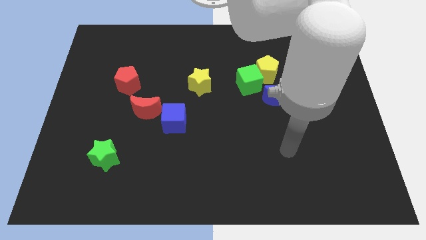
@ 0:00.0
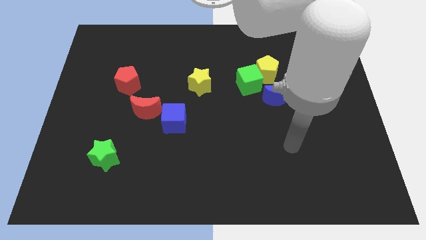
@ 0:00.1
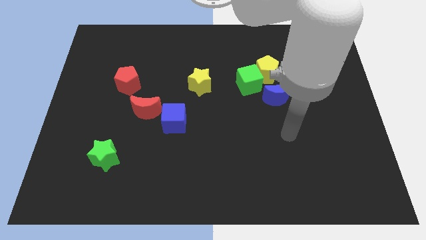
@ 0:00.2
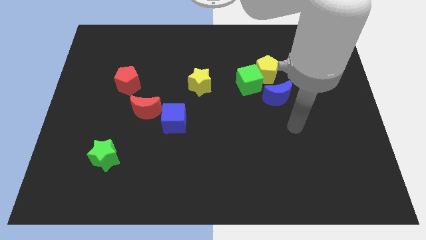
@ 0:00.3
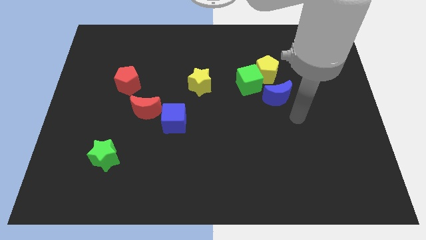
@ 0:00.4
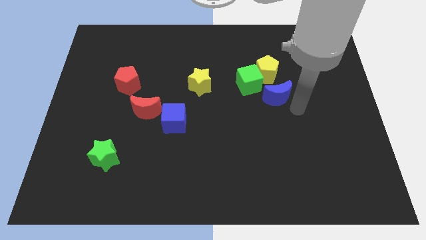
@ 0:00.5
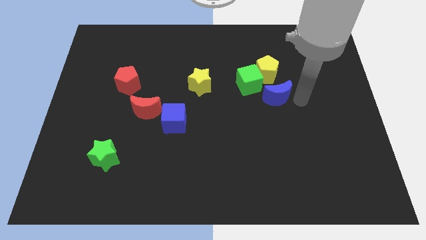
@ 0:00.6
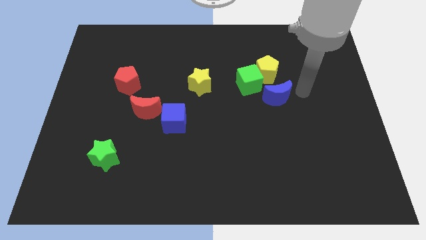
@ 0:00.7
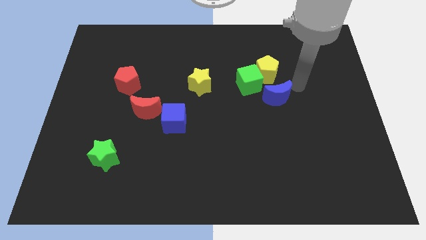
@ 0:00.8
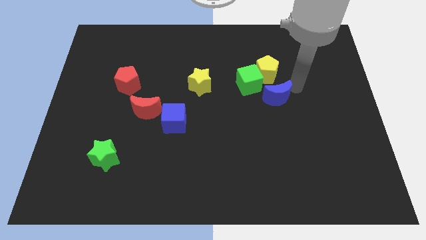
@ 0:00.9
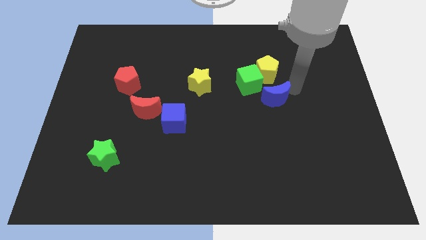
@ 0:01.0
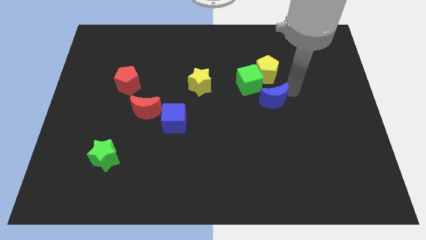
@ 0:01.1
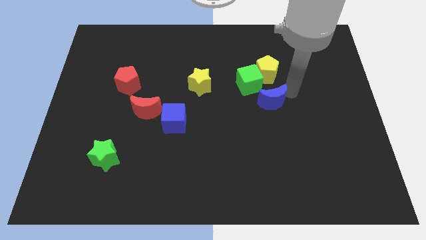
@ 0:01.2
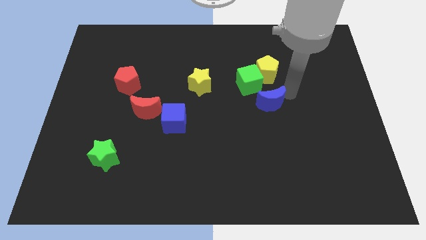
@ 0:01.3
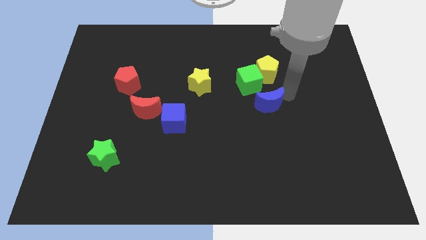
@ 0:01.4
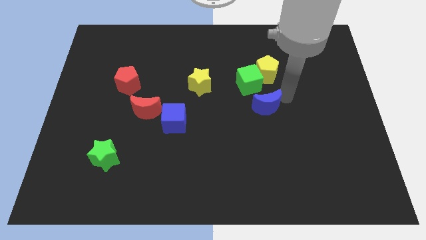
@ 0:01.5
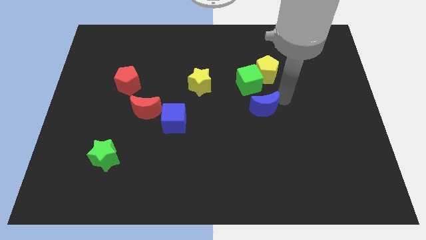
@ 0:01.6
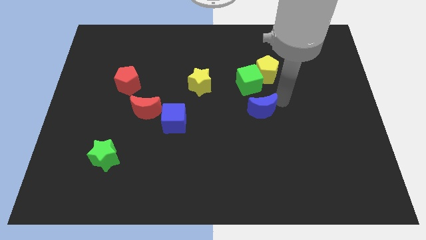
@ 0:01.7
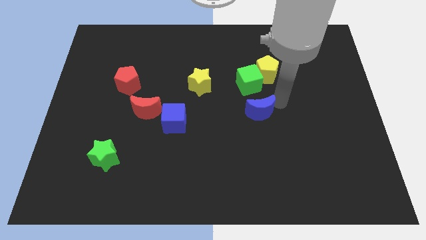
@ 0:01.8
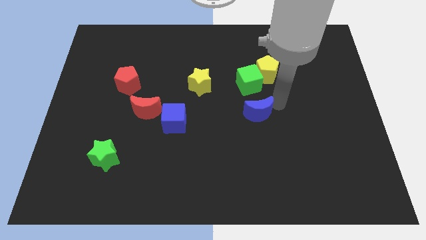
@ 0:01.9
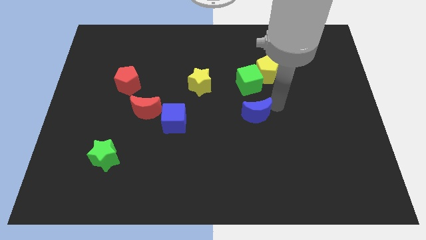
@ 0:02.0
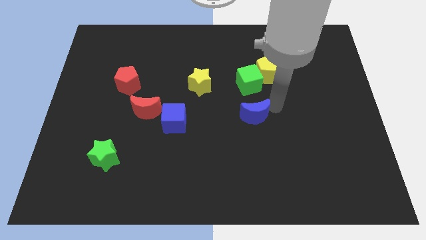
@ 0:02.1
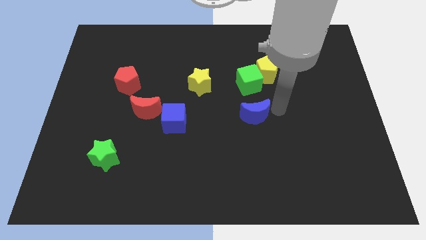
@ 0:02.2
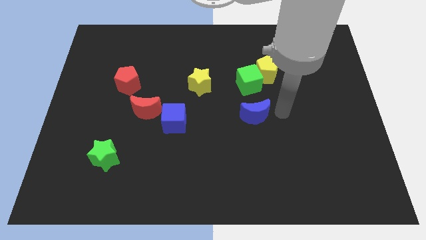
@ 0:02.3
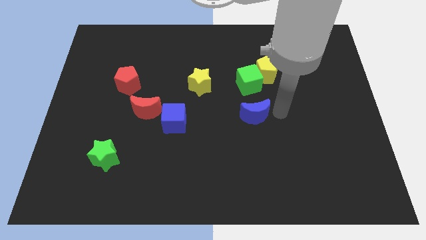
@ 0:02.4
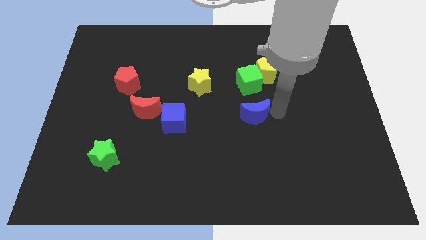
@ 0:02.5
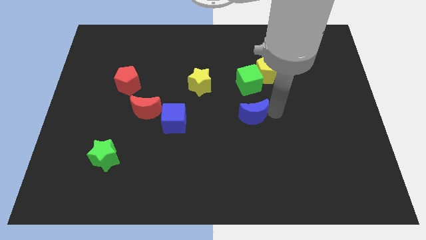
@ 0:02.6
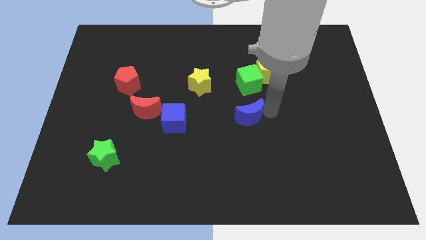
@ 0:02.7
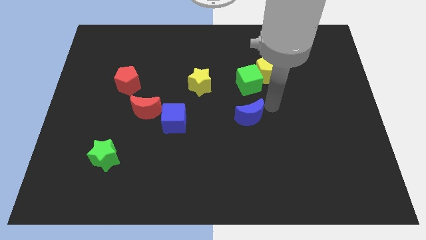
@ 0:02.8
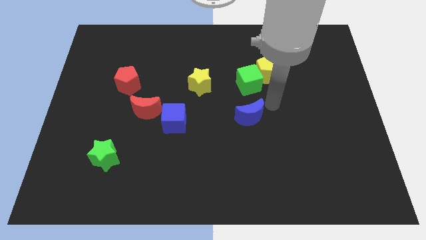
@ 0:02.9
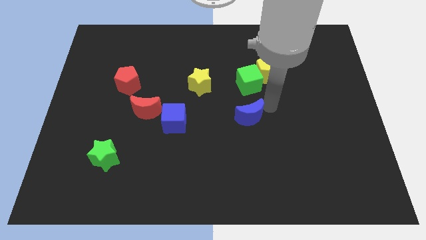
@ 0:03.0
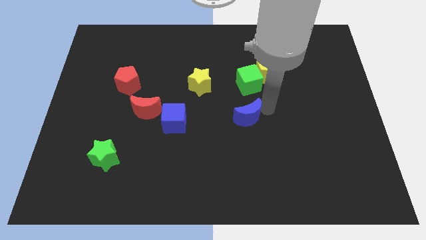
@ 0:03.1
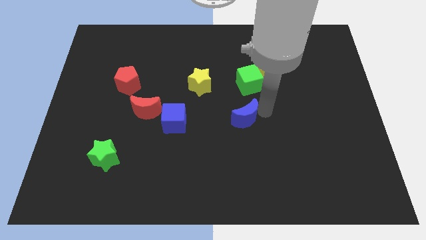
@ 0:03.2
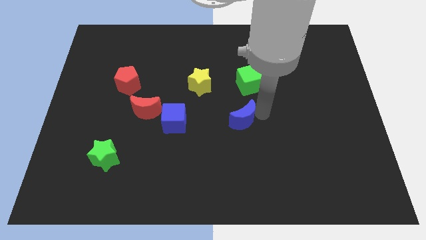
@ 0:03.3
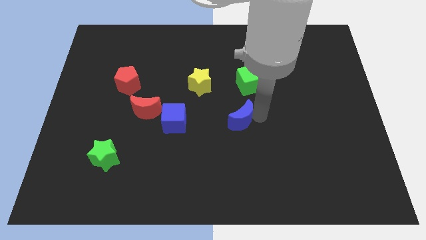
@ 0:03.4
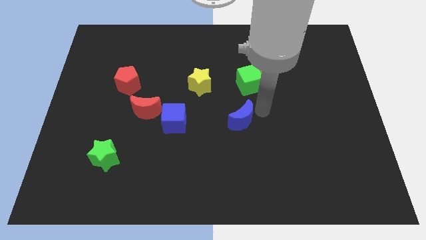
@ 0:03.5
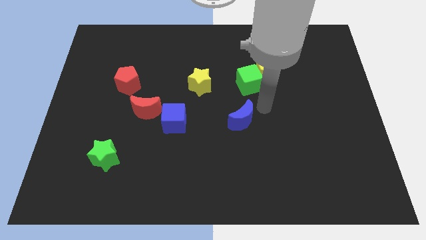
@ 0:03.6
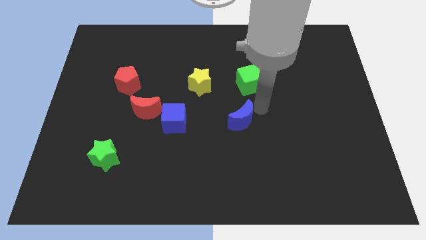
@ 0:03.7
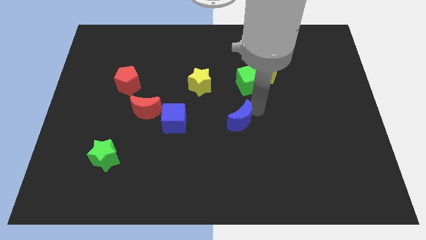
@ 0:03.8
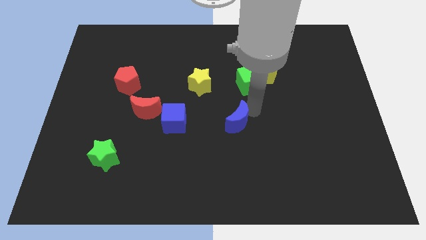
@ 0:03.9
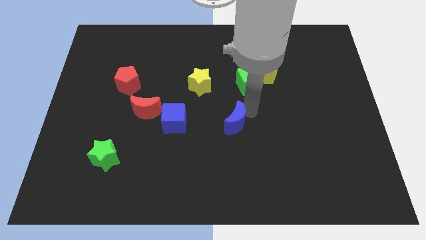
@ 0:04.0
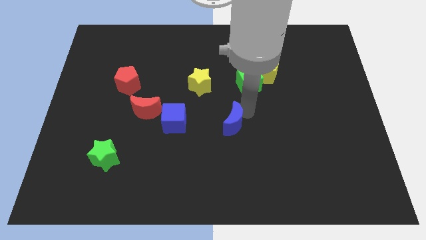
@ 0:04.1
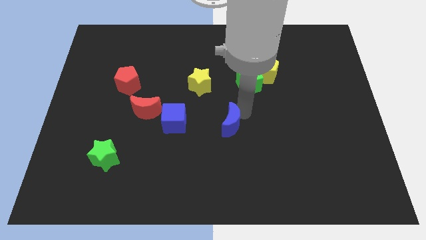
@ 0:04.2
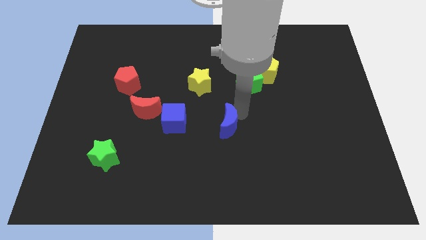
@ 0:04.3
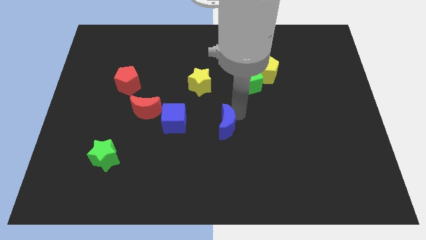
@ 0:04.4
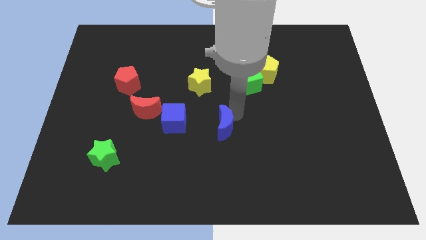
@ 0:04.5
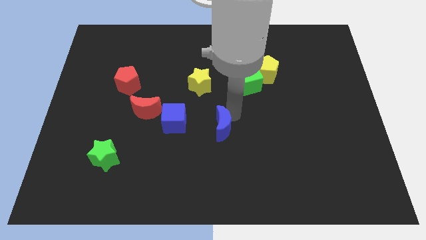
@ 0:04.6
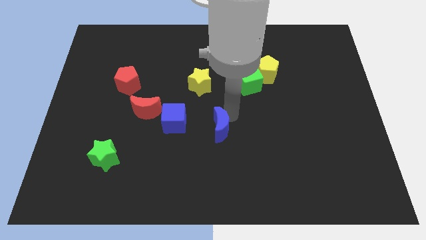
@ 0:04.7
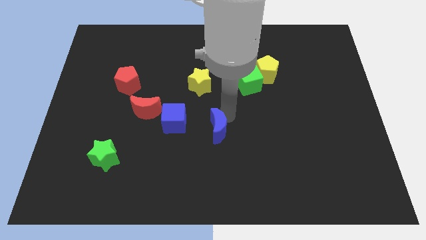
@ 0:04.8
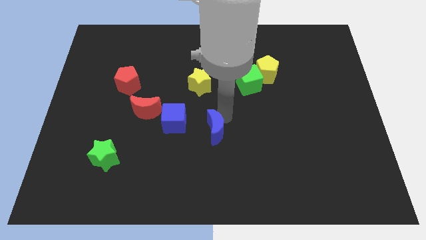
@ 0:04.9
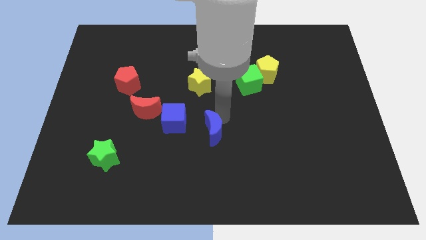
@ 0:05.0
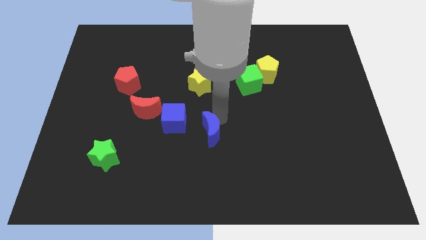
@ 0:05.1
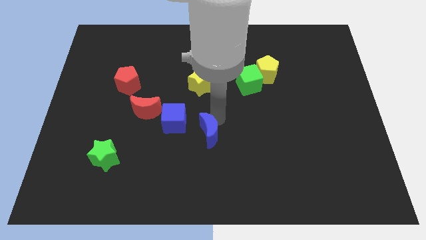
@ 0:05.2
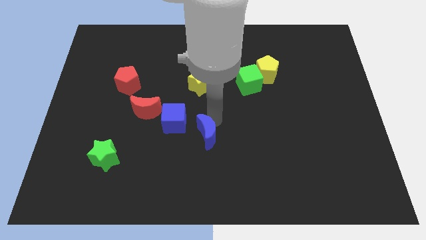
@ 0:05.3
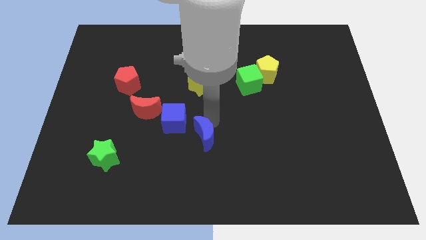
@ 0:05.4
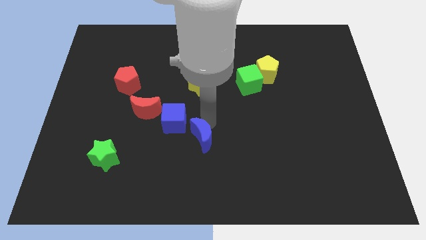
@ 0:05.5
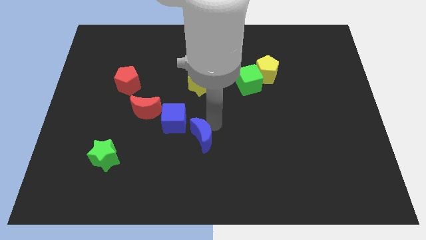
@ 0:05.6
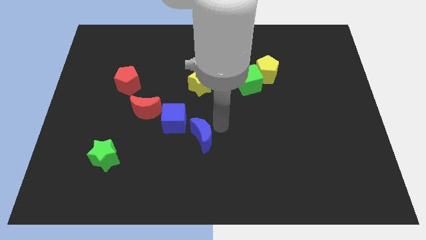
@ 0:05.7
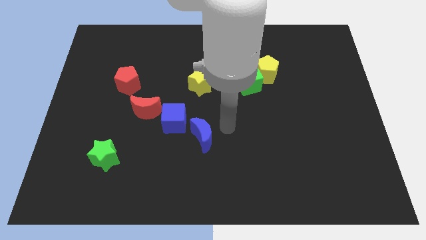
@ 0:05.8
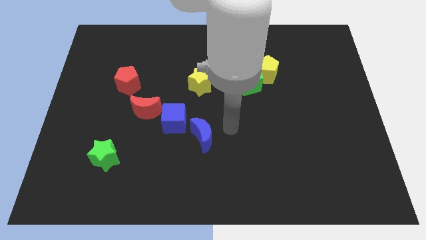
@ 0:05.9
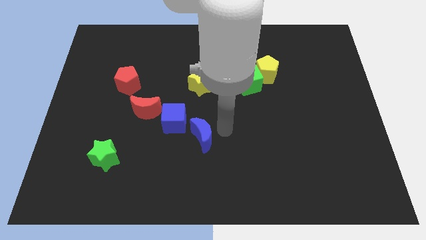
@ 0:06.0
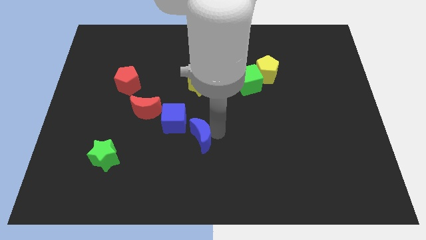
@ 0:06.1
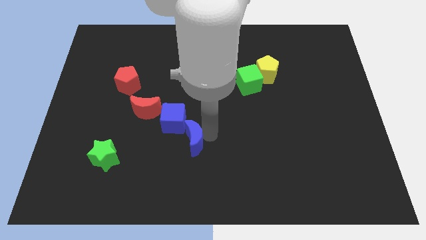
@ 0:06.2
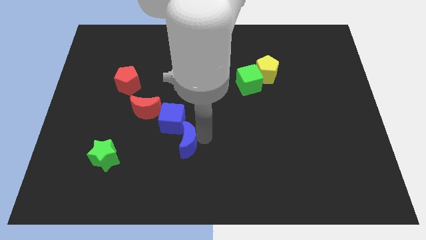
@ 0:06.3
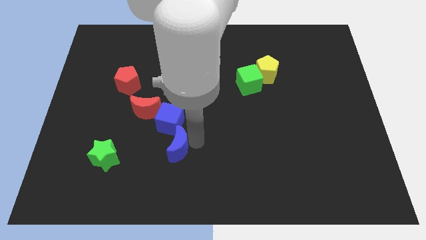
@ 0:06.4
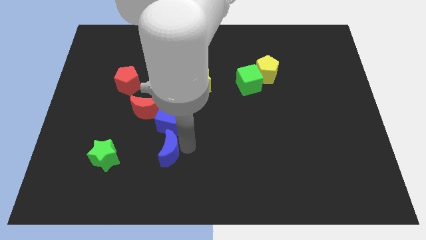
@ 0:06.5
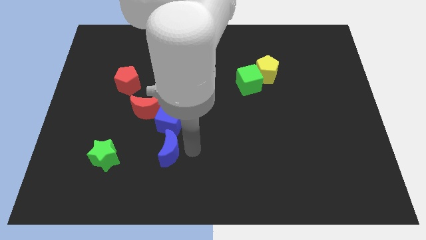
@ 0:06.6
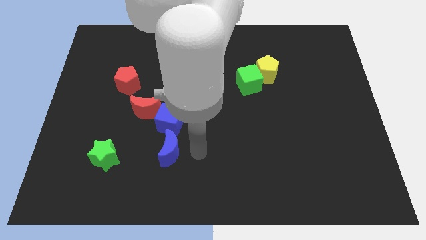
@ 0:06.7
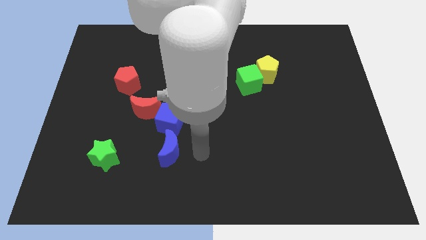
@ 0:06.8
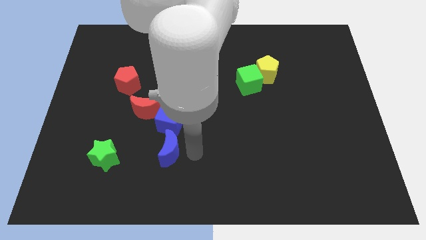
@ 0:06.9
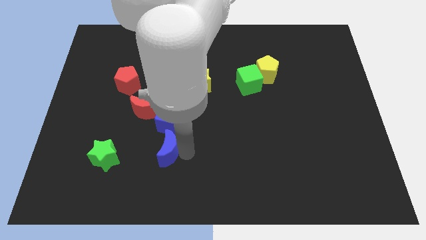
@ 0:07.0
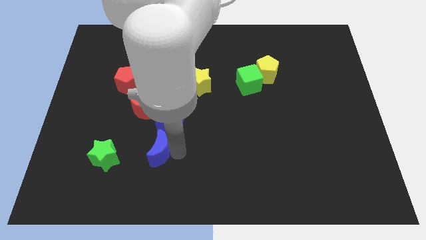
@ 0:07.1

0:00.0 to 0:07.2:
push the blue moon below the red moon

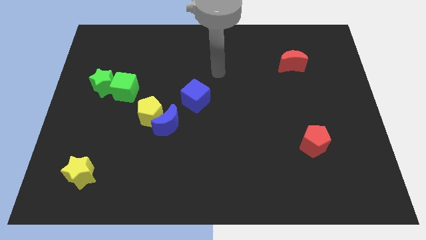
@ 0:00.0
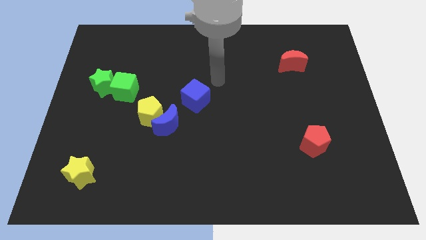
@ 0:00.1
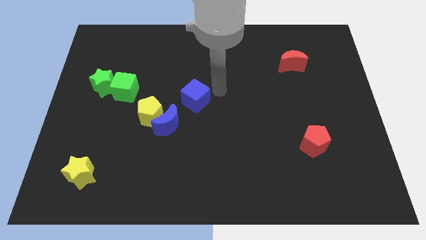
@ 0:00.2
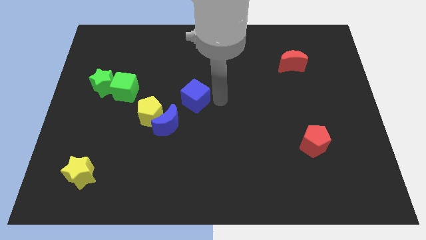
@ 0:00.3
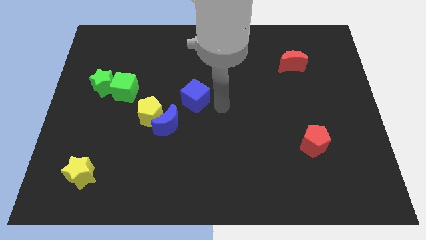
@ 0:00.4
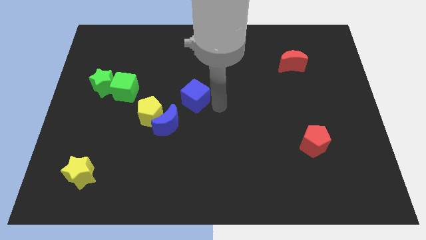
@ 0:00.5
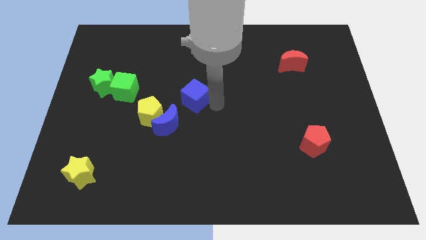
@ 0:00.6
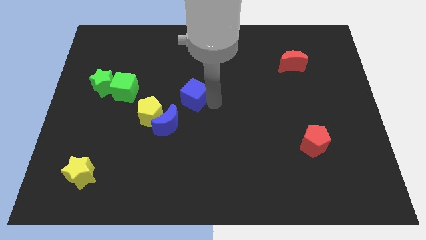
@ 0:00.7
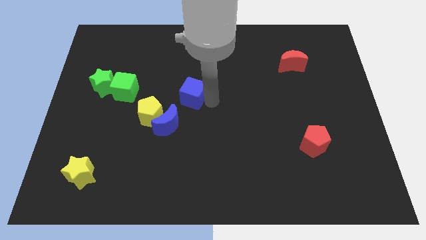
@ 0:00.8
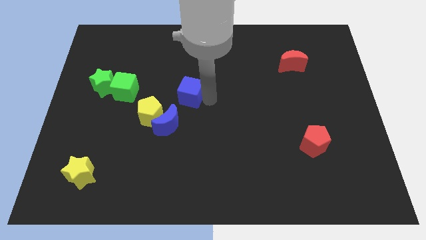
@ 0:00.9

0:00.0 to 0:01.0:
slide the blue cube right of the green cube
